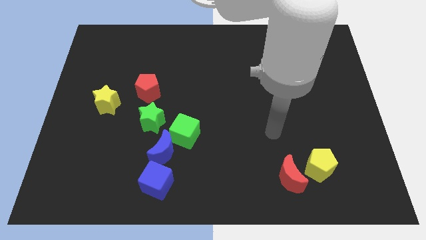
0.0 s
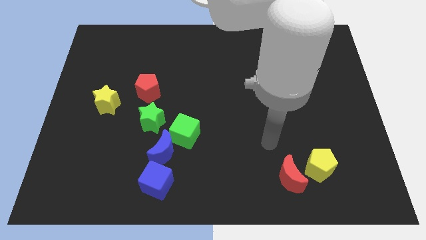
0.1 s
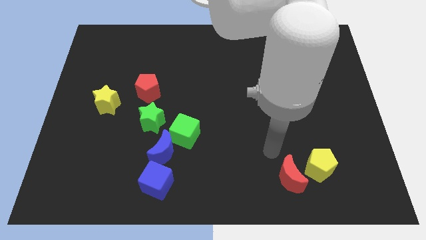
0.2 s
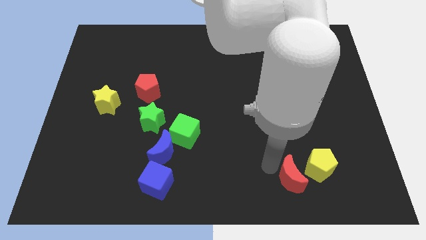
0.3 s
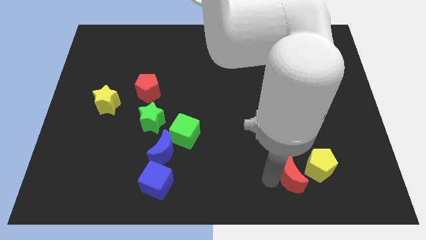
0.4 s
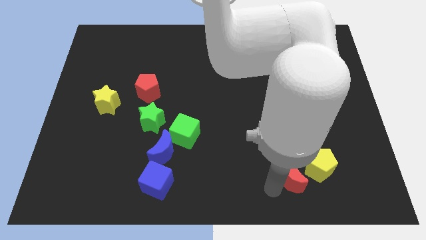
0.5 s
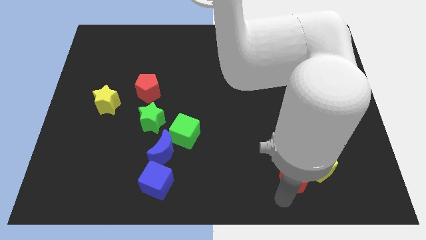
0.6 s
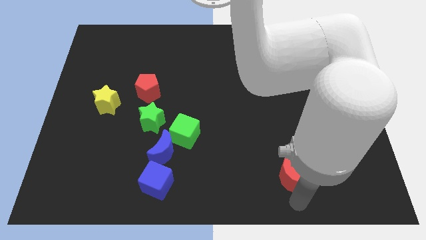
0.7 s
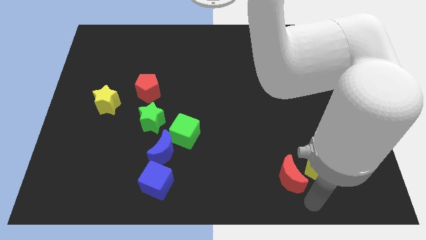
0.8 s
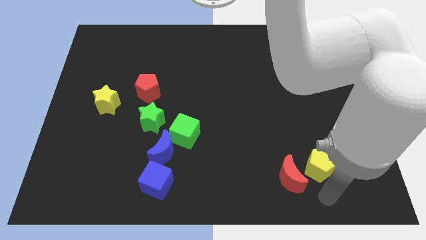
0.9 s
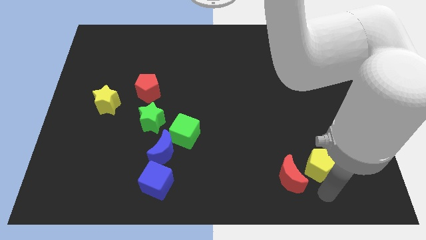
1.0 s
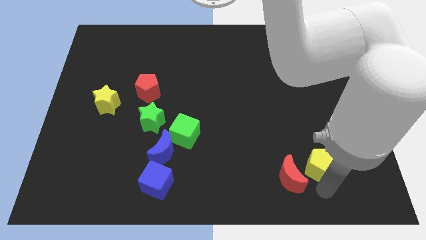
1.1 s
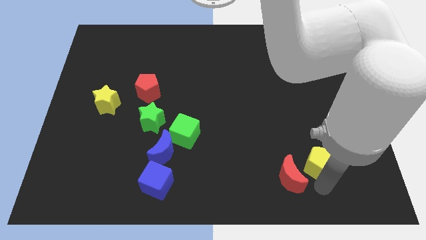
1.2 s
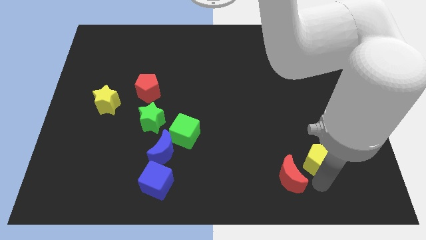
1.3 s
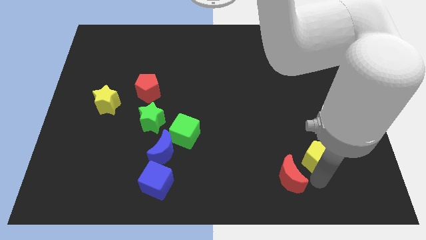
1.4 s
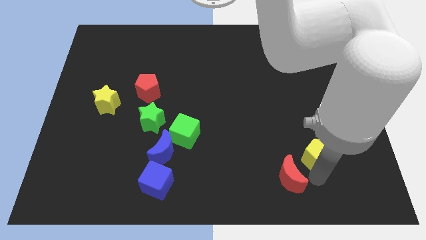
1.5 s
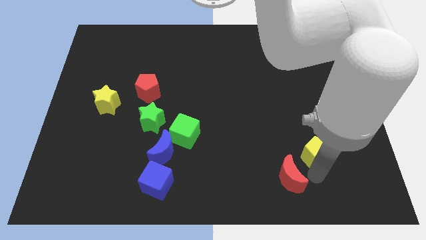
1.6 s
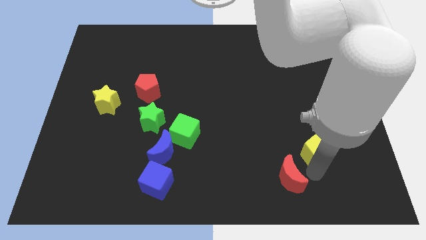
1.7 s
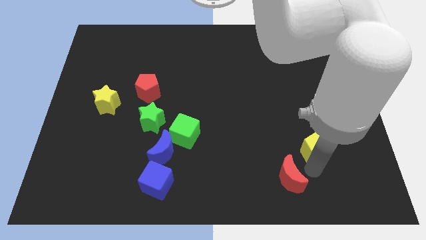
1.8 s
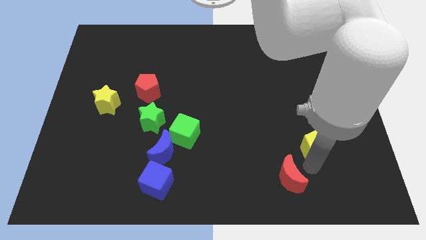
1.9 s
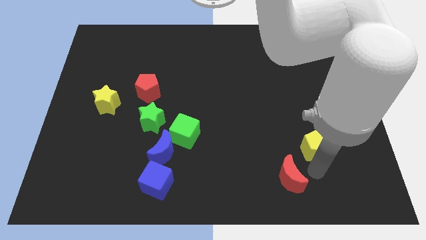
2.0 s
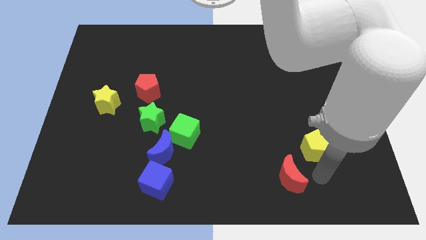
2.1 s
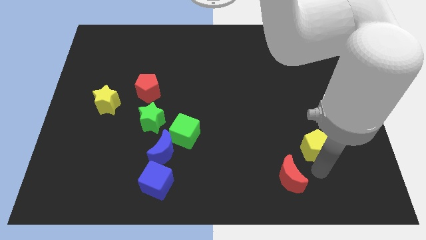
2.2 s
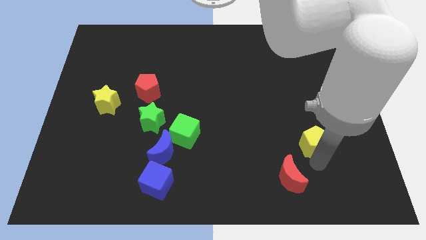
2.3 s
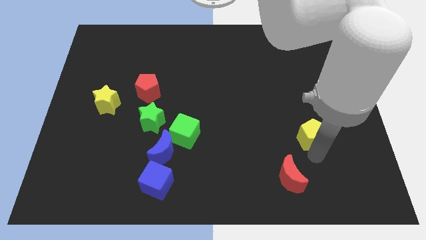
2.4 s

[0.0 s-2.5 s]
push the yellow pentagon somewhat upwards

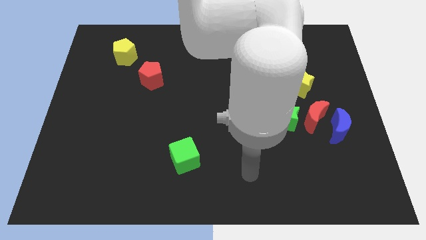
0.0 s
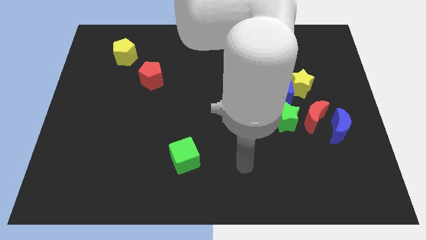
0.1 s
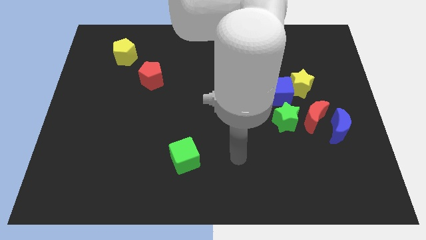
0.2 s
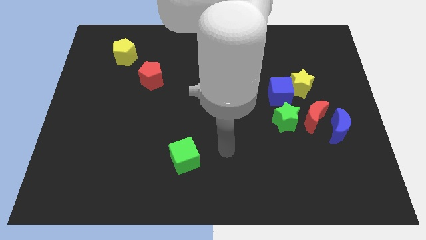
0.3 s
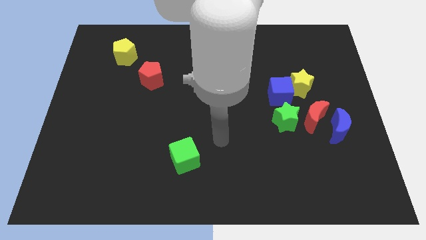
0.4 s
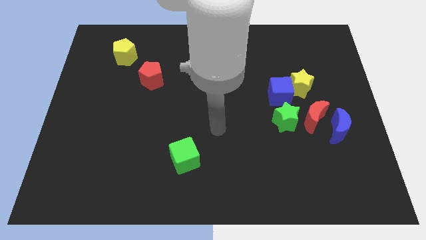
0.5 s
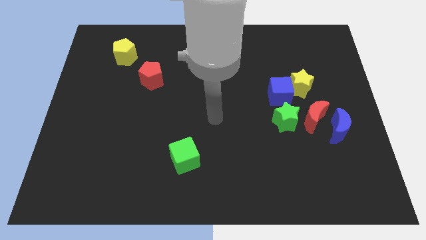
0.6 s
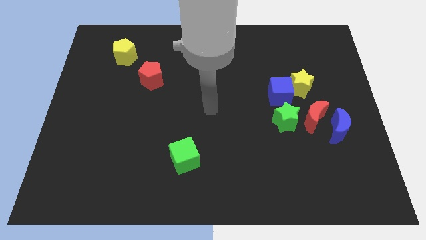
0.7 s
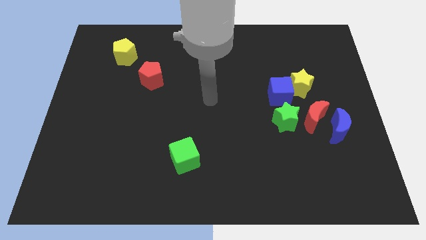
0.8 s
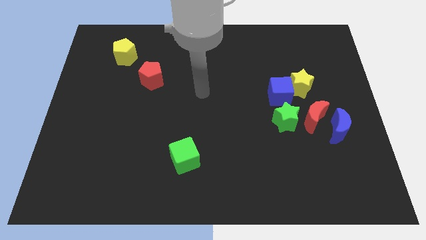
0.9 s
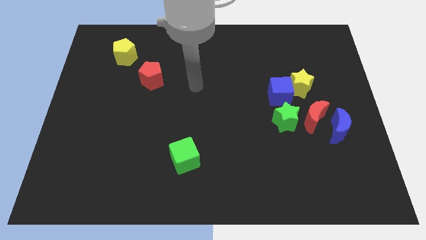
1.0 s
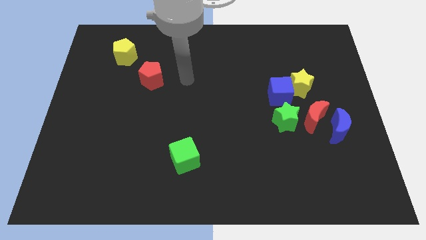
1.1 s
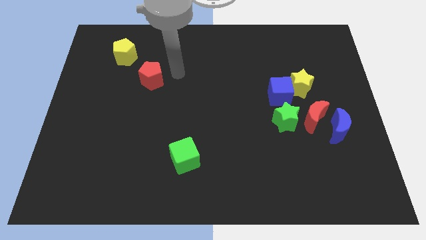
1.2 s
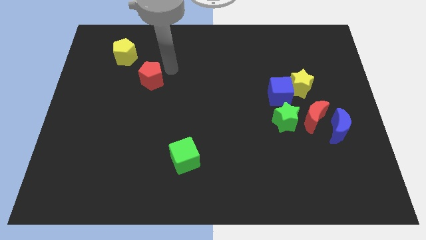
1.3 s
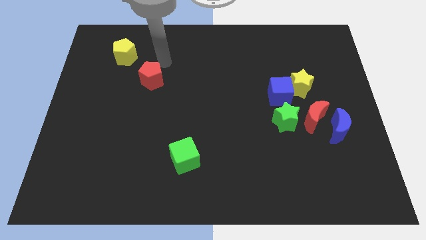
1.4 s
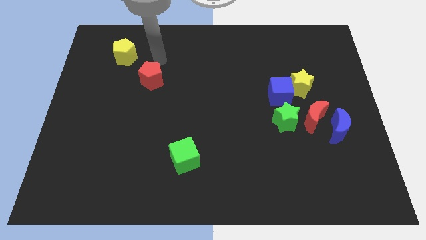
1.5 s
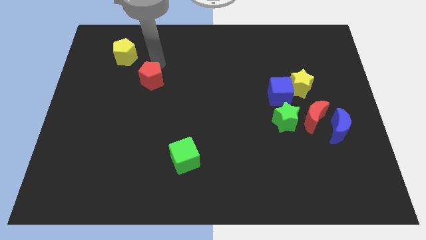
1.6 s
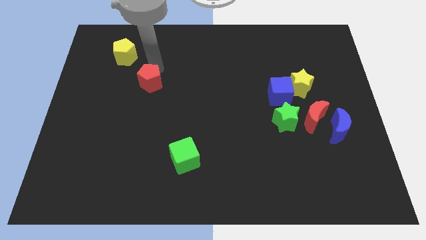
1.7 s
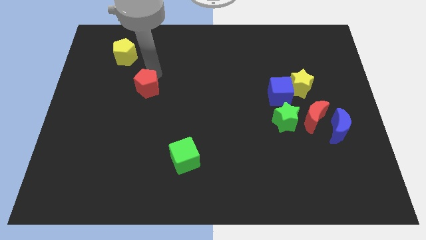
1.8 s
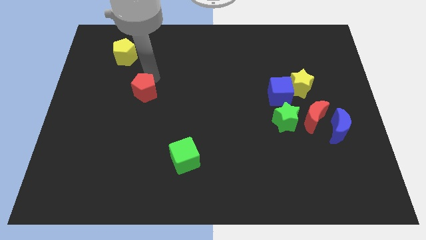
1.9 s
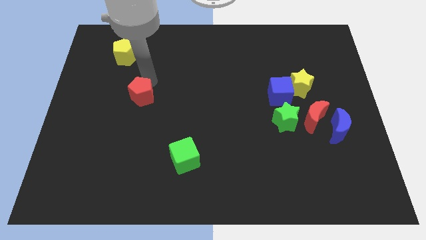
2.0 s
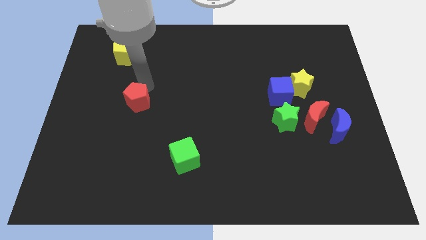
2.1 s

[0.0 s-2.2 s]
slide the red pentagon somewhat downwards

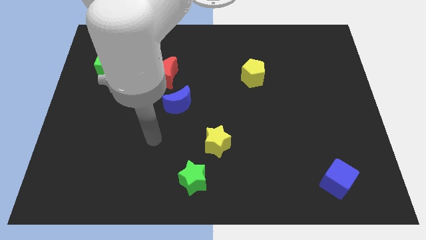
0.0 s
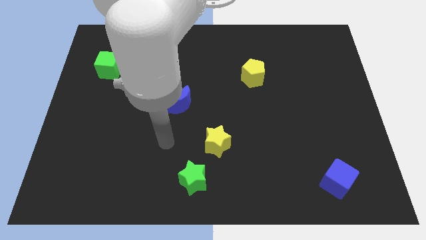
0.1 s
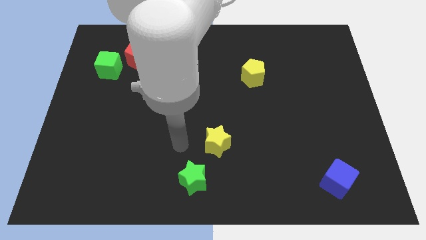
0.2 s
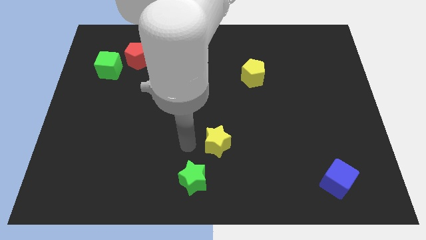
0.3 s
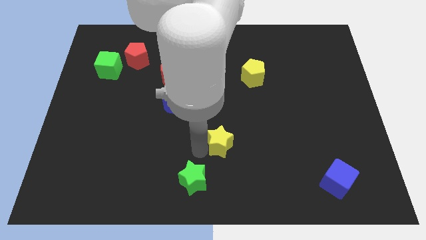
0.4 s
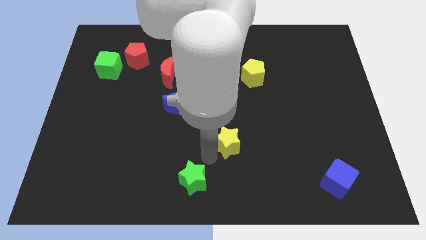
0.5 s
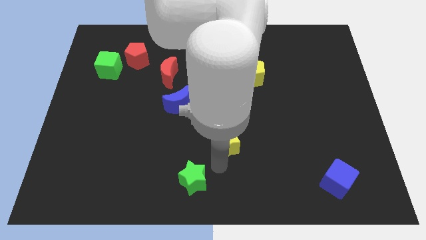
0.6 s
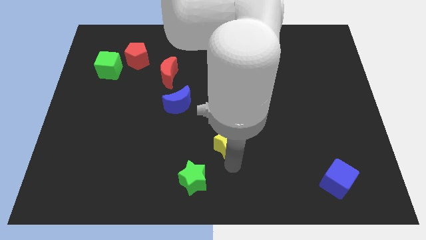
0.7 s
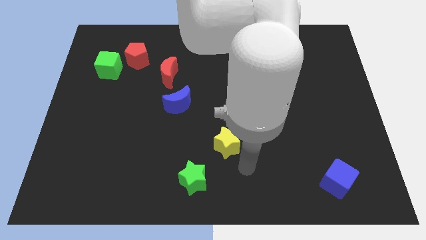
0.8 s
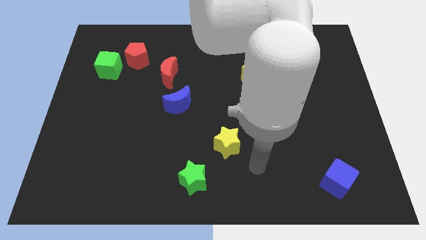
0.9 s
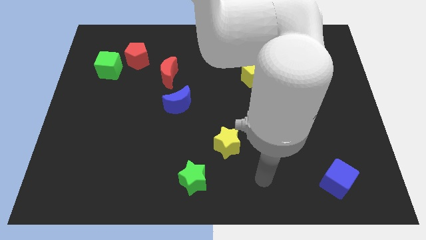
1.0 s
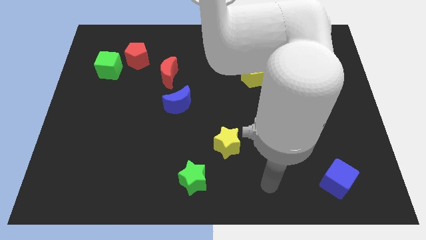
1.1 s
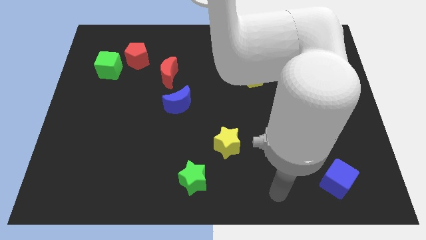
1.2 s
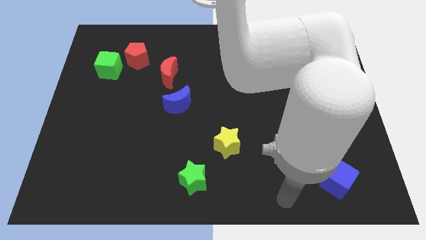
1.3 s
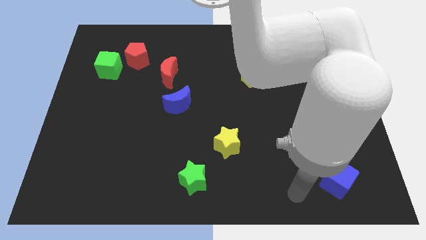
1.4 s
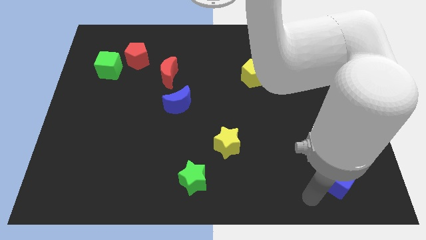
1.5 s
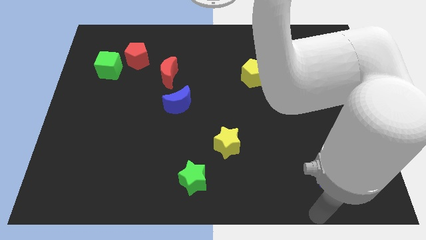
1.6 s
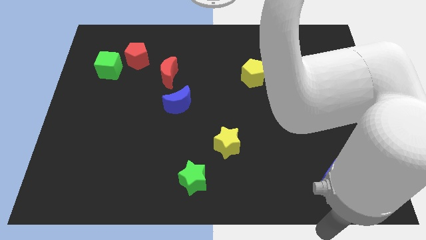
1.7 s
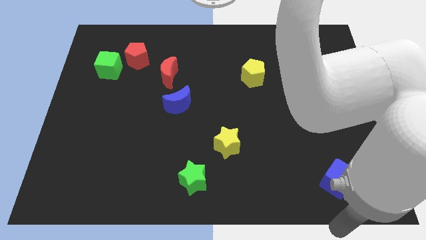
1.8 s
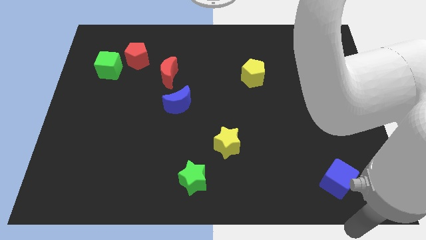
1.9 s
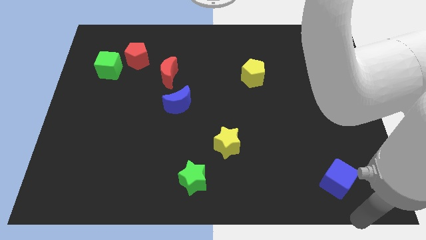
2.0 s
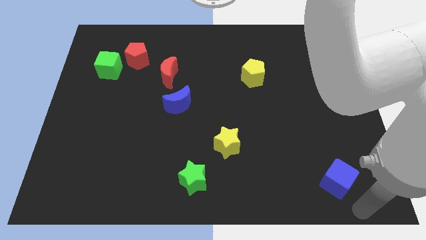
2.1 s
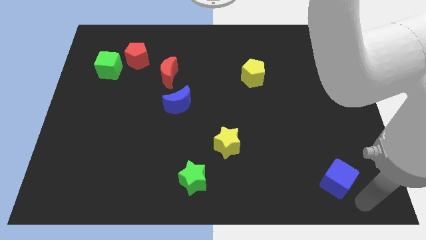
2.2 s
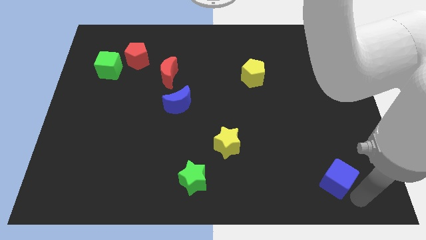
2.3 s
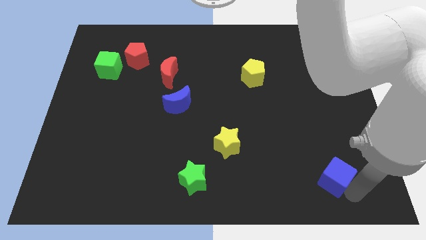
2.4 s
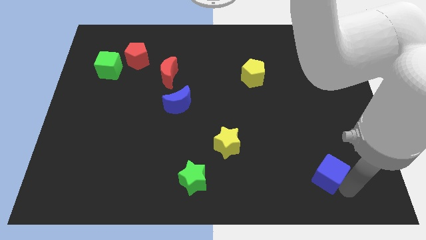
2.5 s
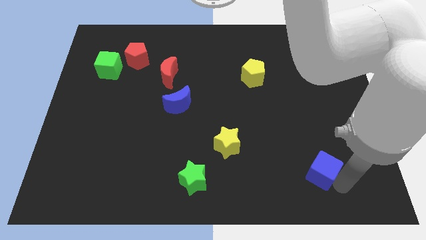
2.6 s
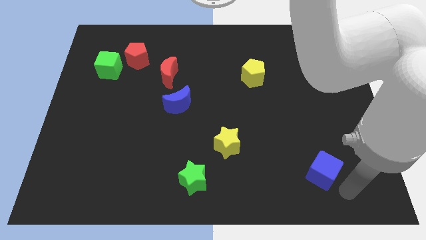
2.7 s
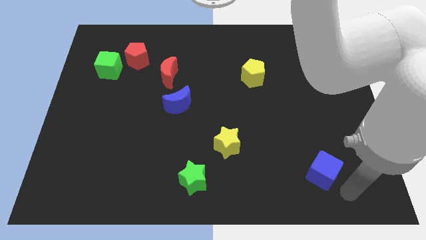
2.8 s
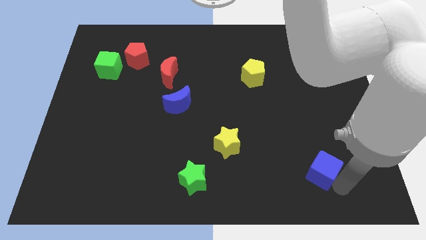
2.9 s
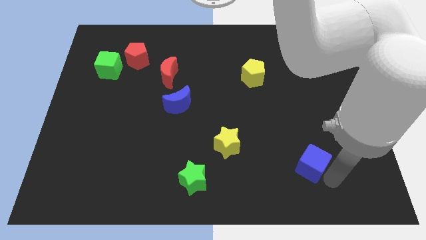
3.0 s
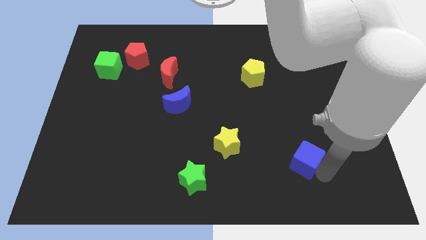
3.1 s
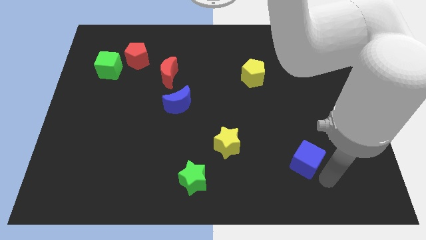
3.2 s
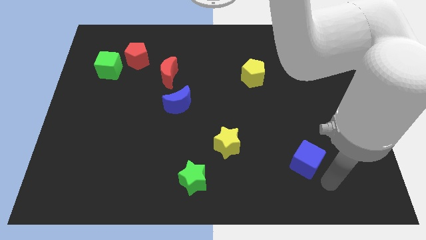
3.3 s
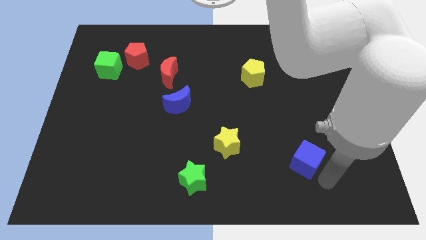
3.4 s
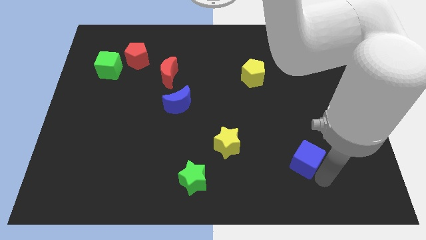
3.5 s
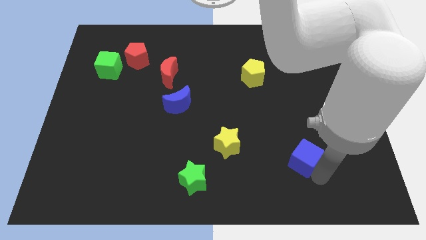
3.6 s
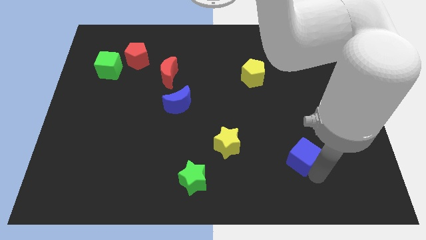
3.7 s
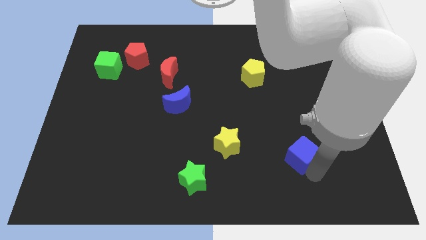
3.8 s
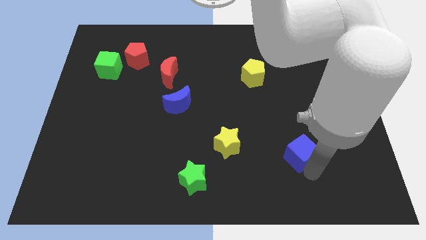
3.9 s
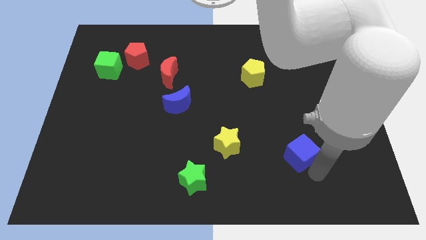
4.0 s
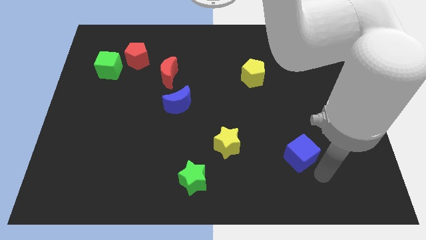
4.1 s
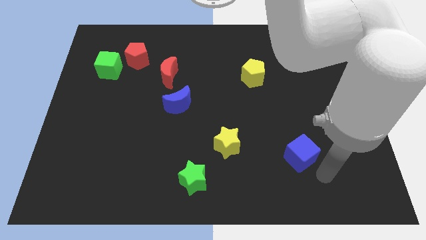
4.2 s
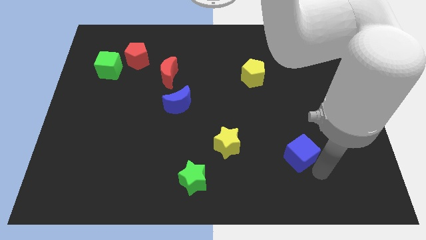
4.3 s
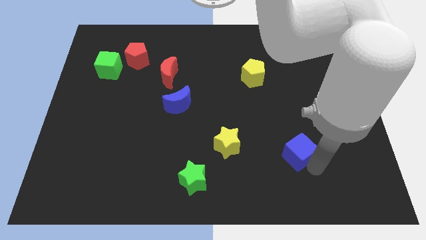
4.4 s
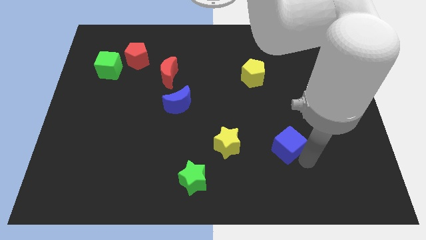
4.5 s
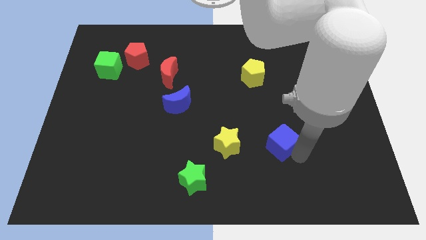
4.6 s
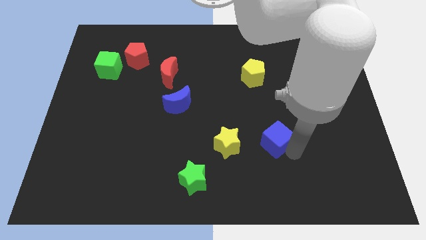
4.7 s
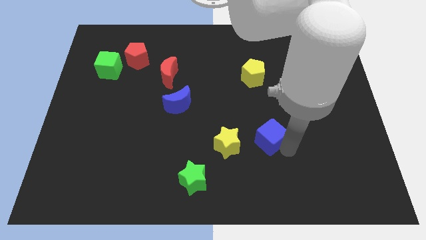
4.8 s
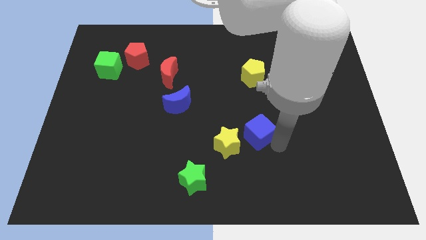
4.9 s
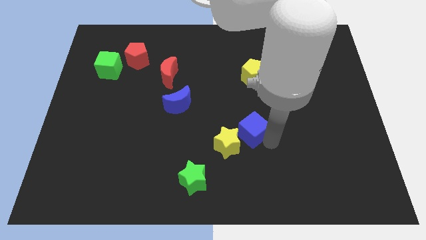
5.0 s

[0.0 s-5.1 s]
slide the blue cube up and left diagonally
